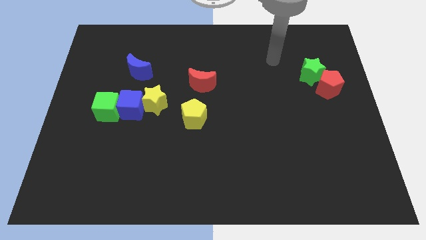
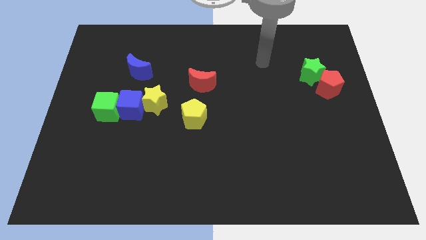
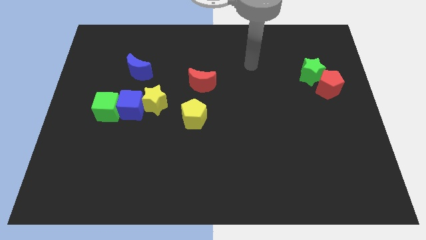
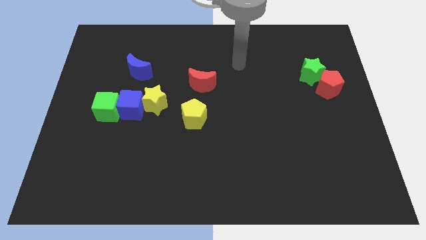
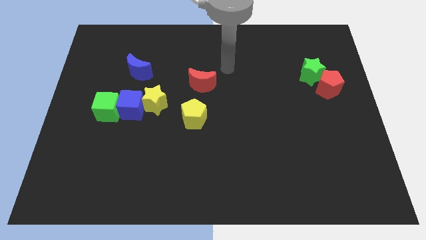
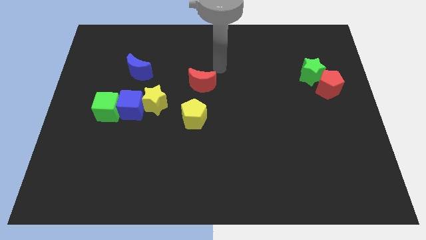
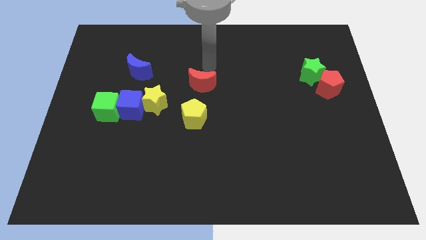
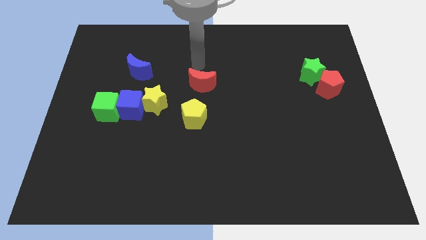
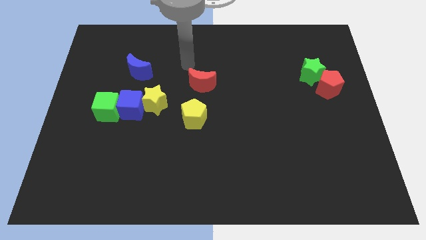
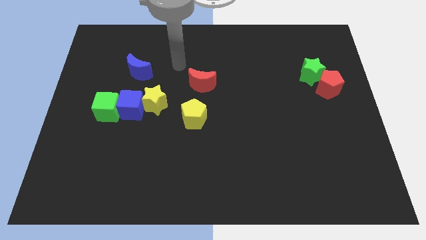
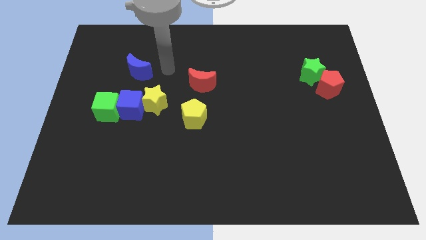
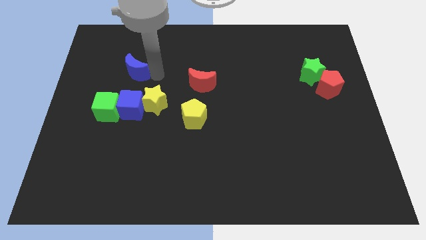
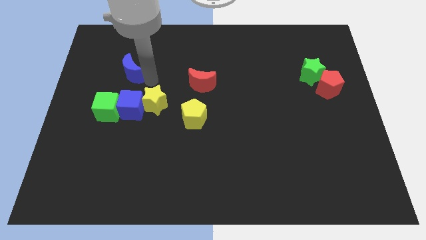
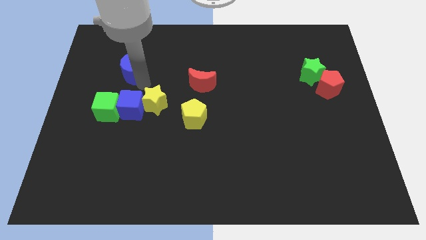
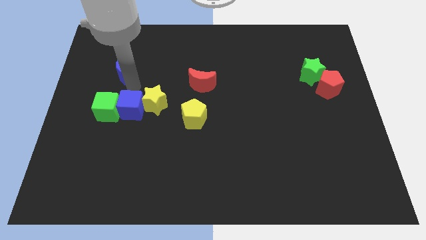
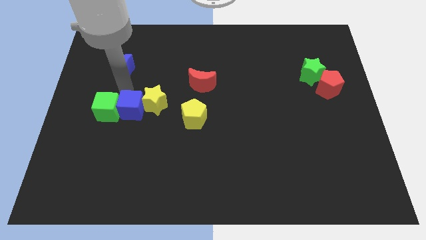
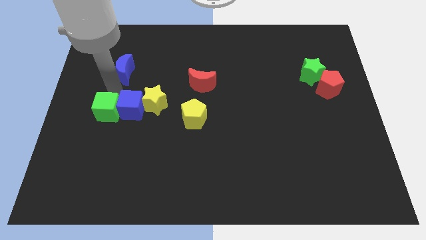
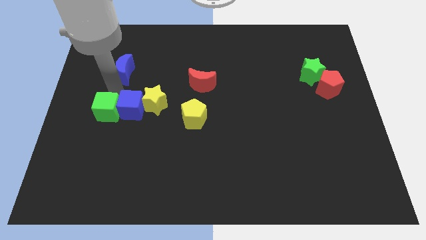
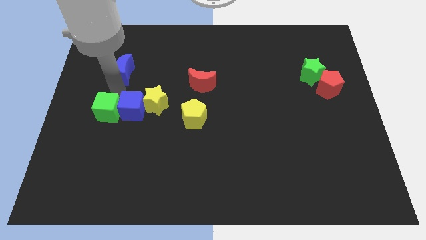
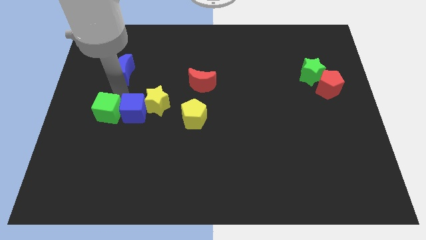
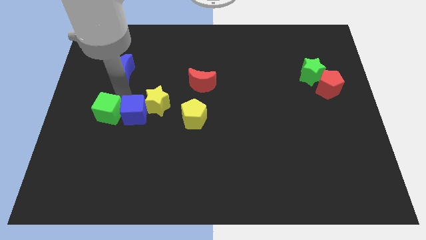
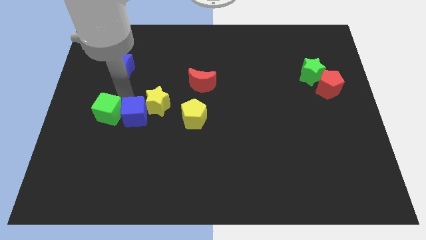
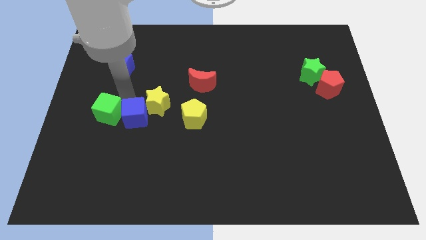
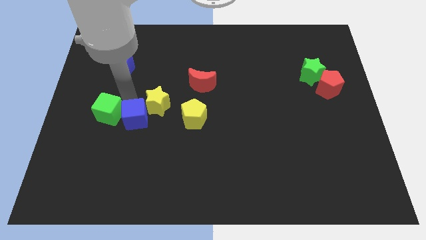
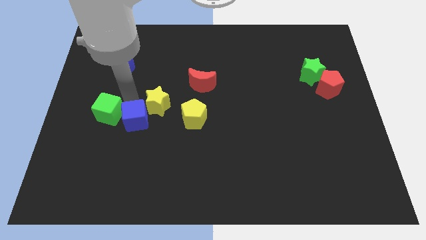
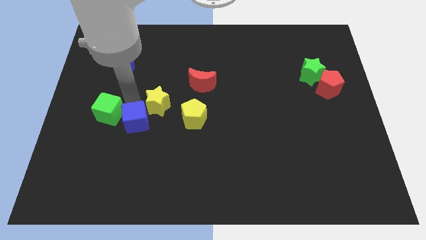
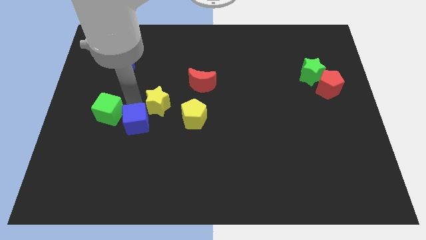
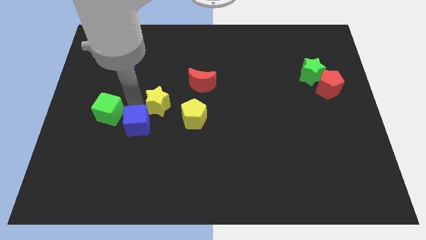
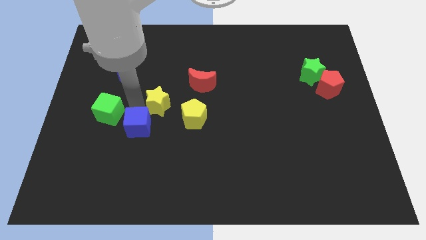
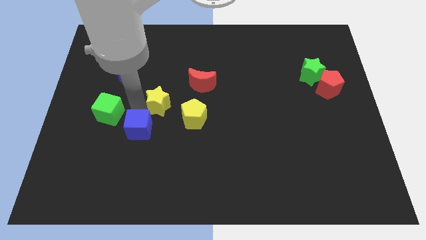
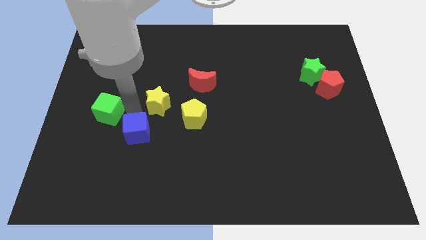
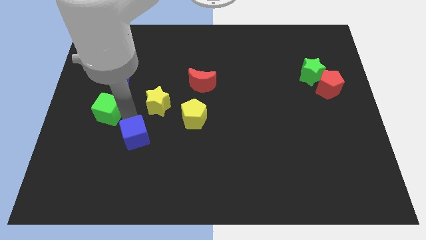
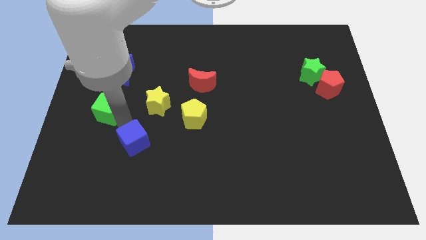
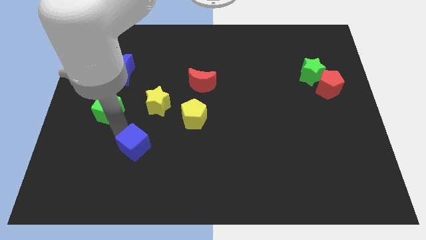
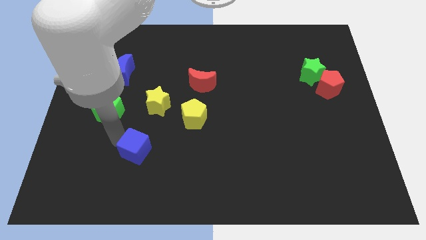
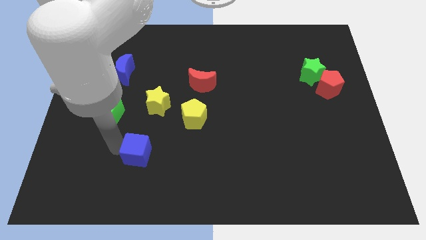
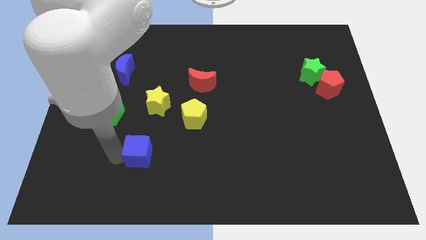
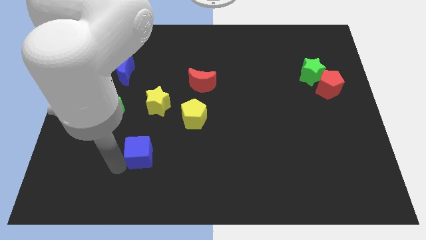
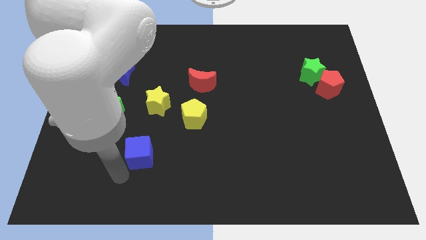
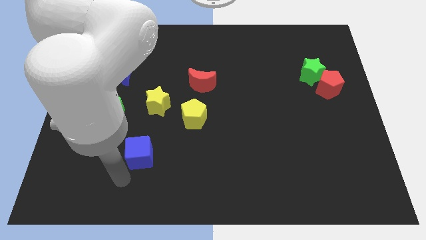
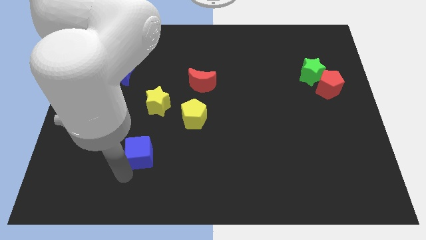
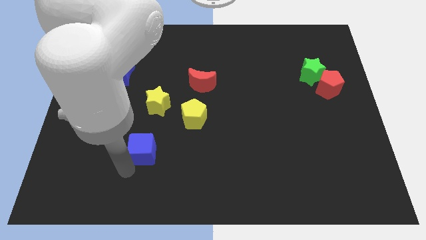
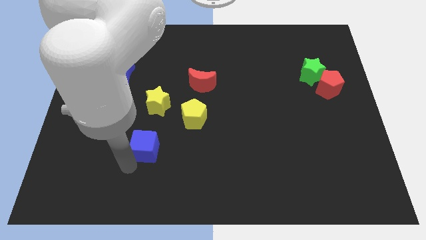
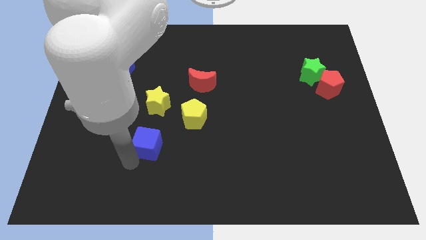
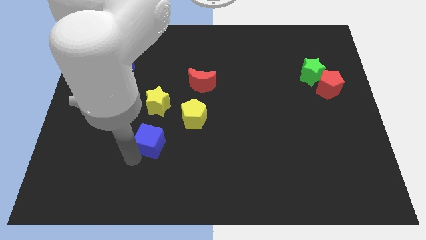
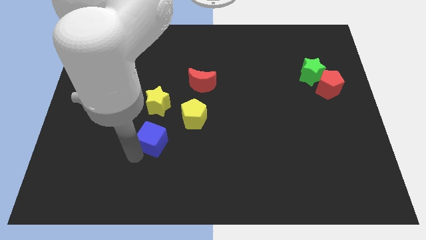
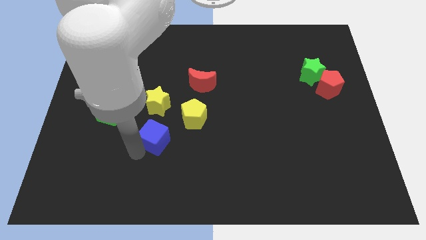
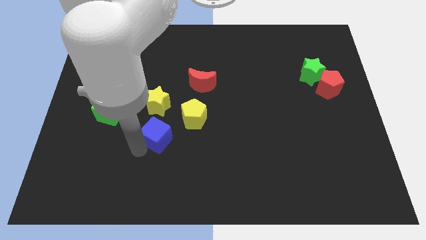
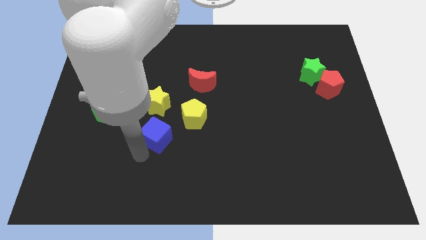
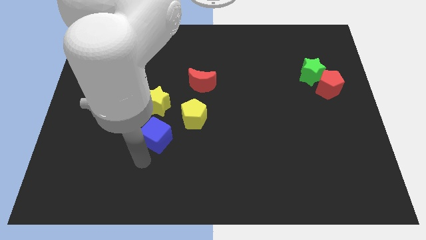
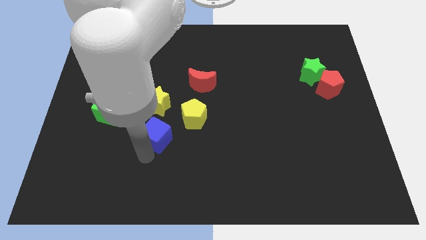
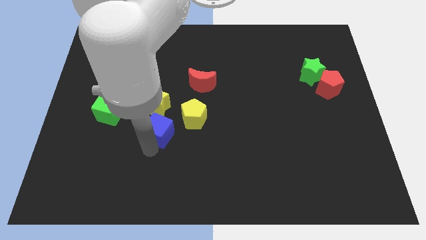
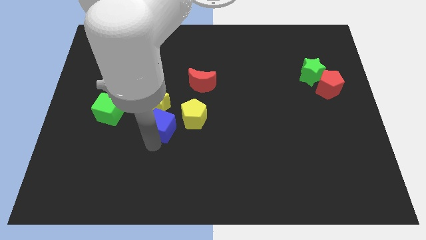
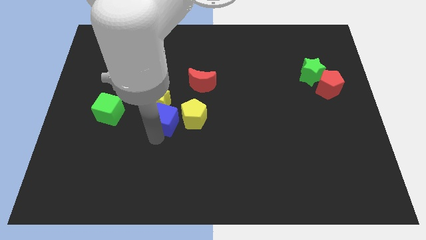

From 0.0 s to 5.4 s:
slightly move the blue cube to the right

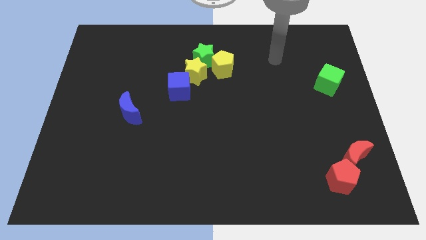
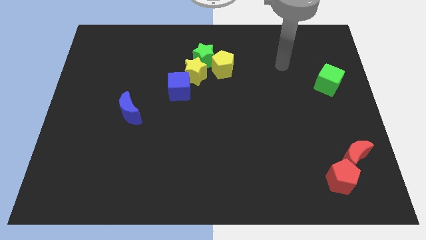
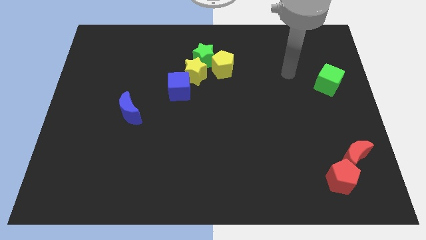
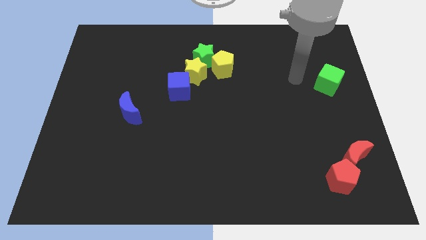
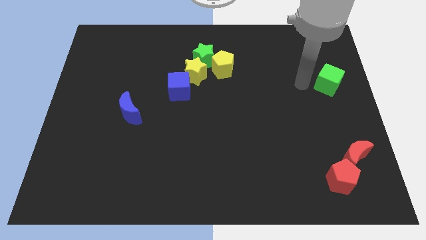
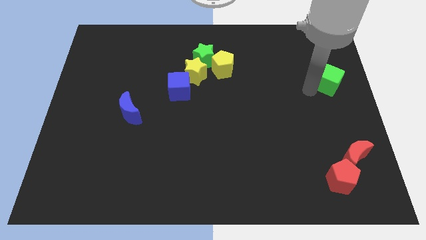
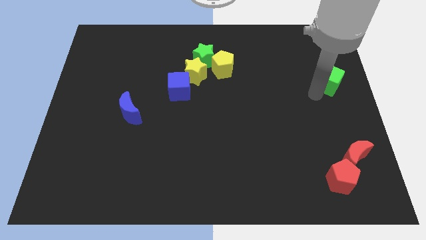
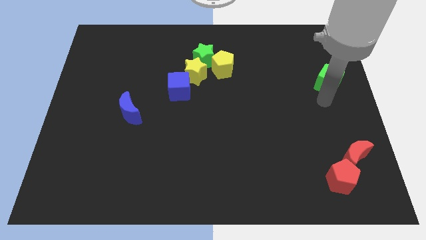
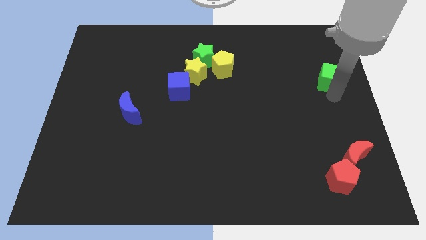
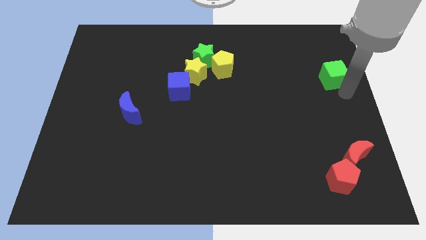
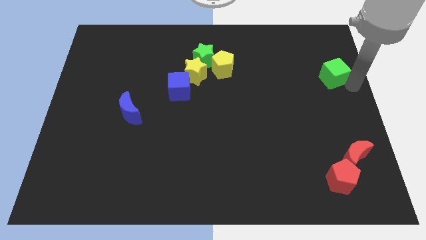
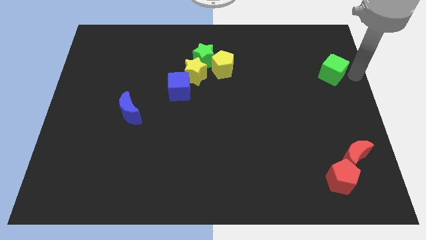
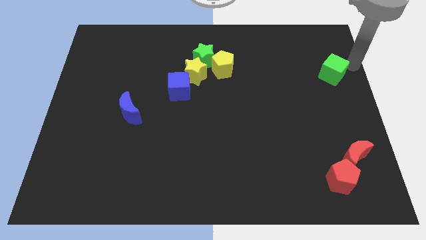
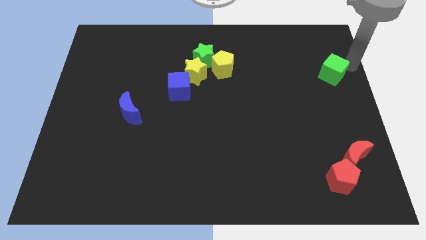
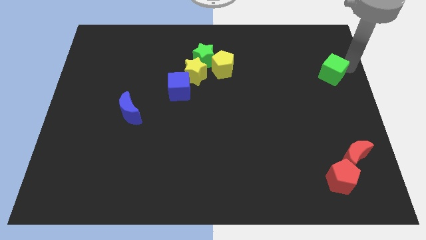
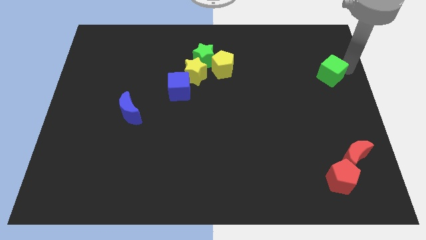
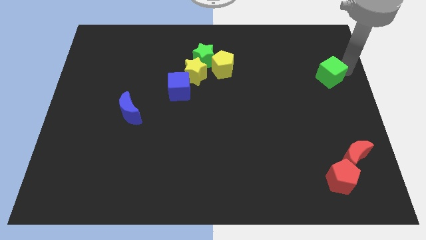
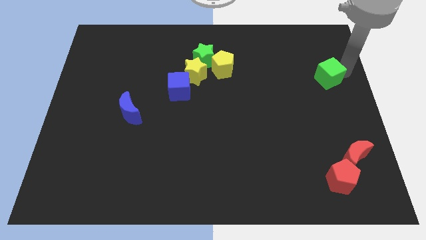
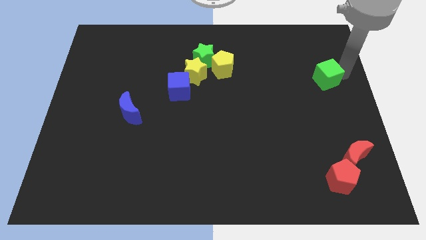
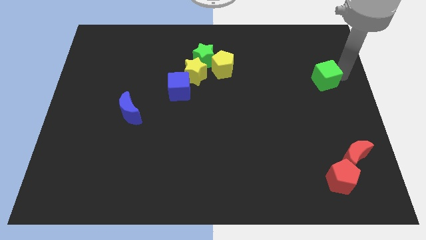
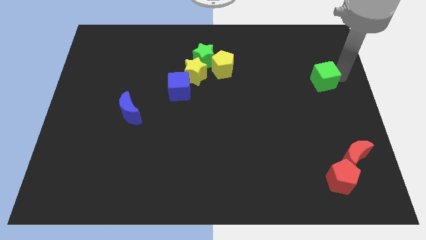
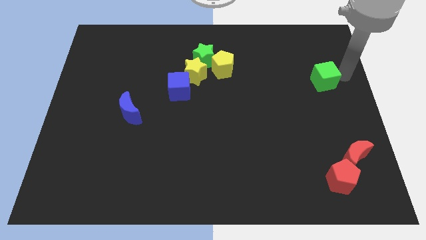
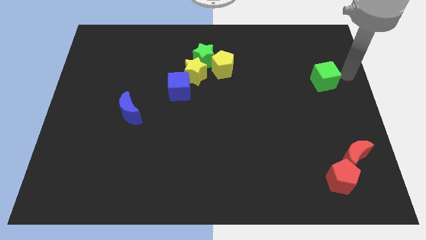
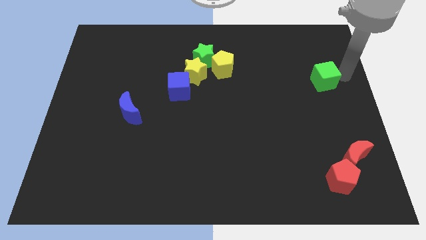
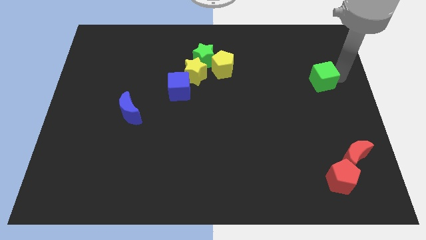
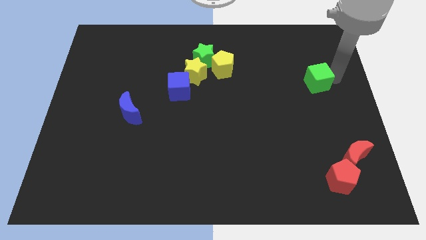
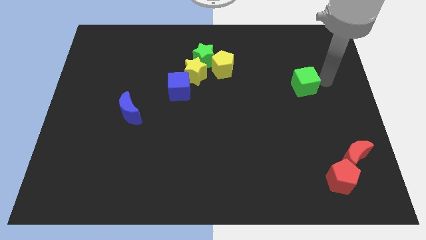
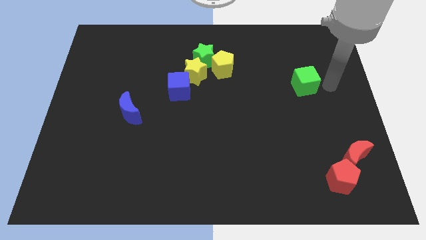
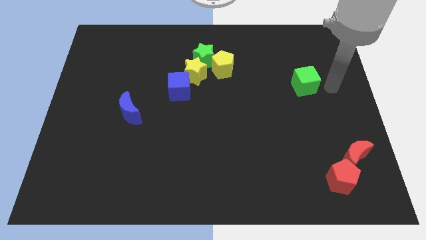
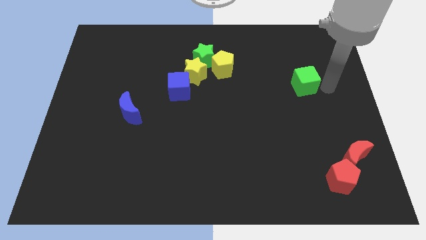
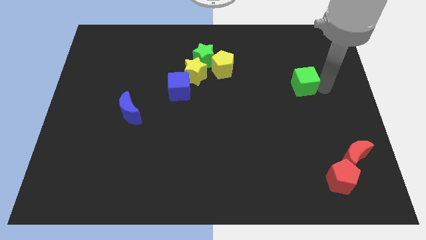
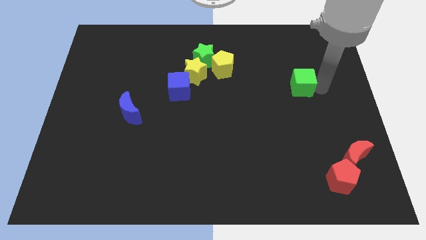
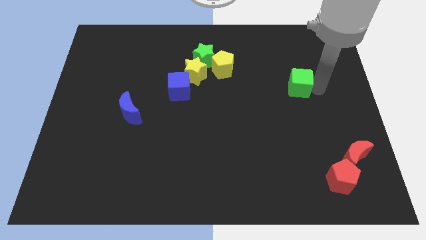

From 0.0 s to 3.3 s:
push the green cube slightly to the left
